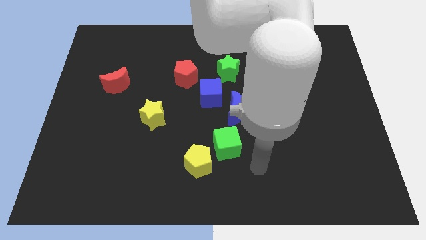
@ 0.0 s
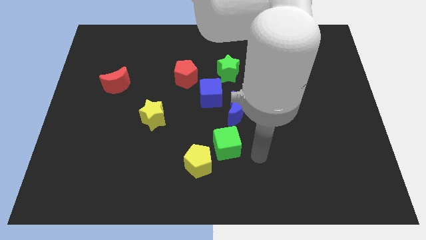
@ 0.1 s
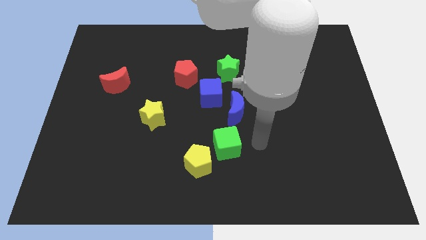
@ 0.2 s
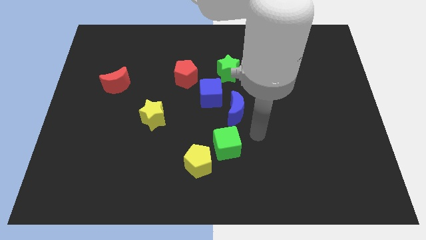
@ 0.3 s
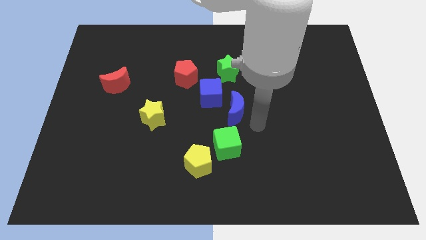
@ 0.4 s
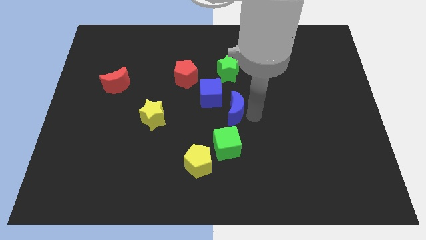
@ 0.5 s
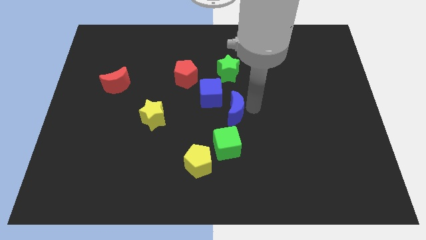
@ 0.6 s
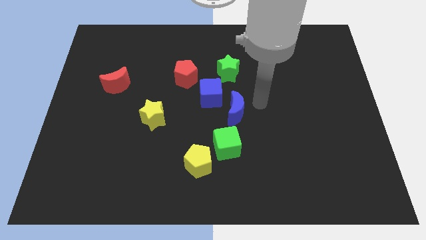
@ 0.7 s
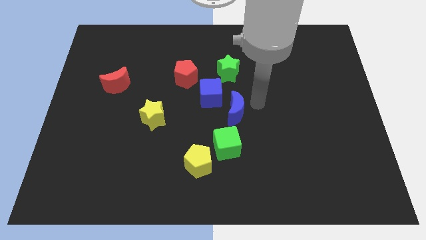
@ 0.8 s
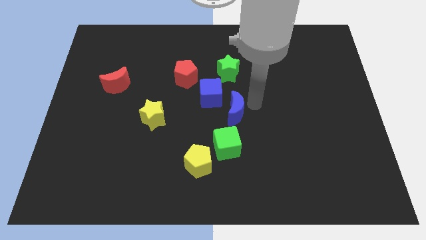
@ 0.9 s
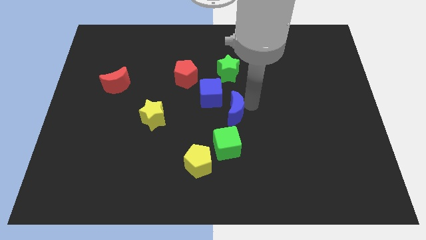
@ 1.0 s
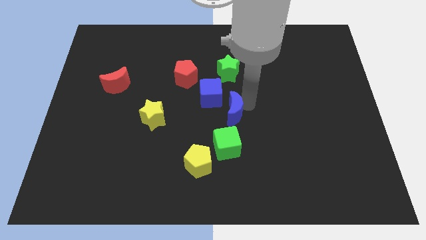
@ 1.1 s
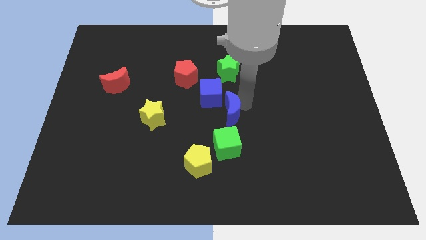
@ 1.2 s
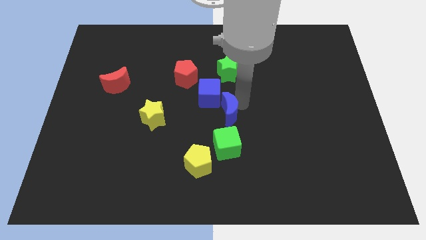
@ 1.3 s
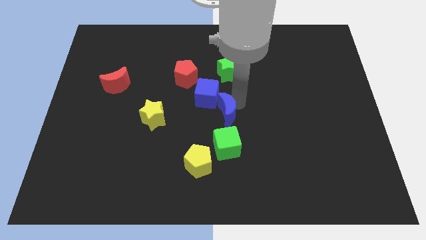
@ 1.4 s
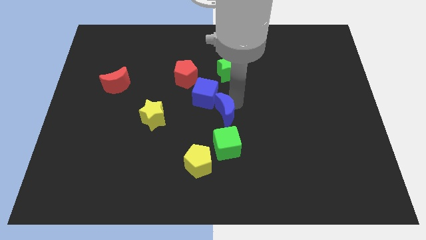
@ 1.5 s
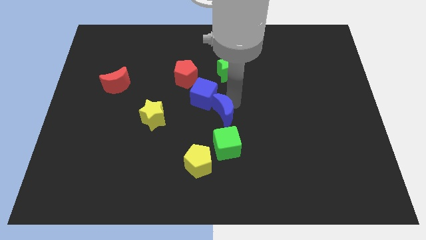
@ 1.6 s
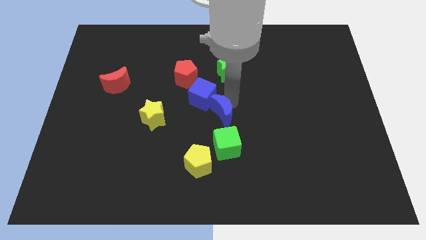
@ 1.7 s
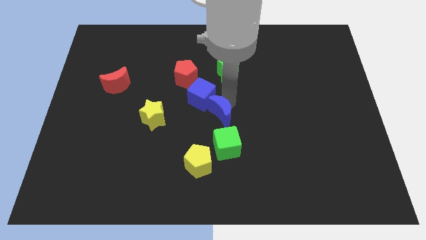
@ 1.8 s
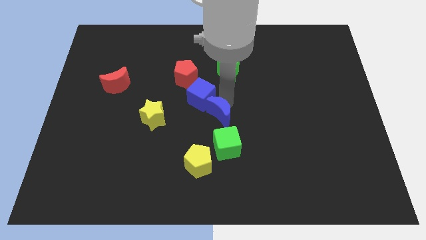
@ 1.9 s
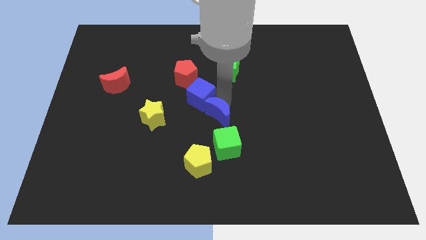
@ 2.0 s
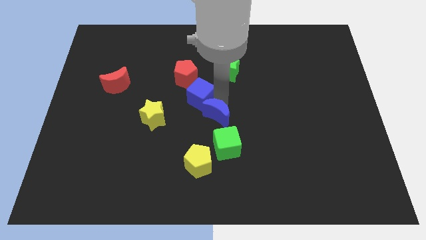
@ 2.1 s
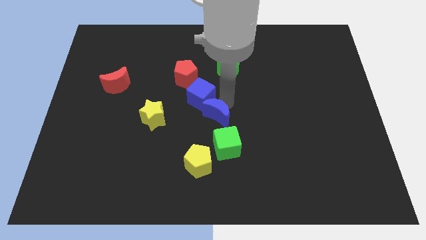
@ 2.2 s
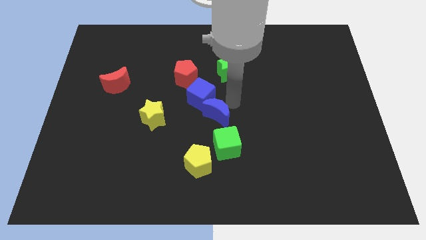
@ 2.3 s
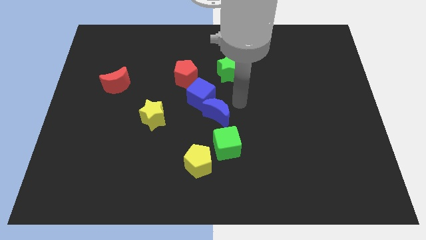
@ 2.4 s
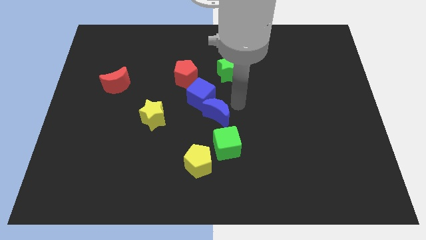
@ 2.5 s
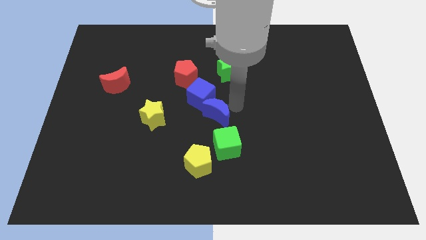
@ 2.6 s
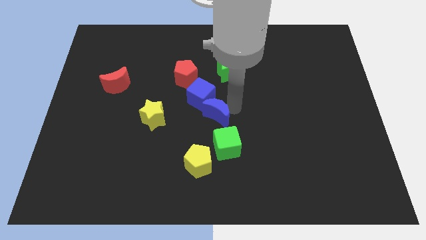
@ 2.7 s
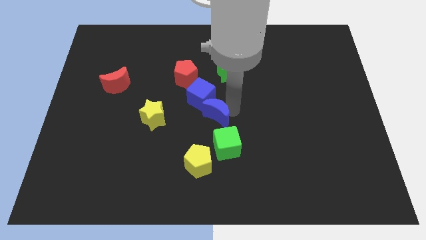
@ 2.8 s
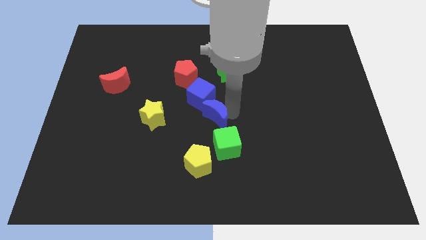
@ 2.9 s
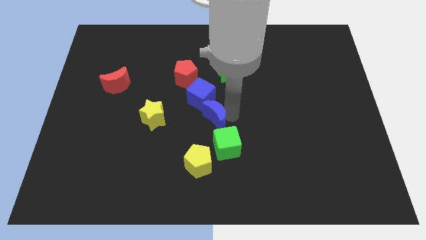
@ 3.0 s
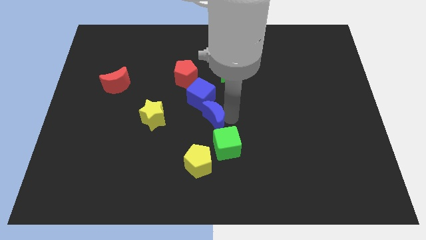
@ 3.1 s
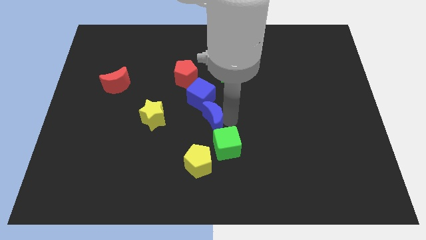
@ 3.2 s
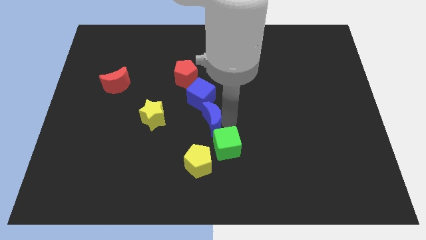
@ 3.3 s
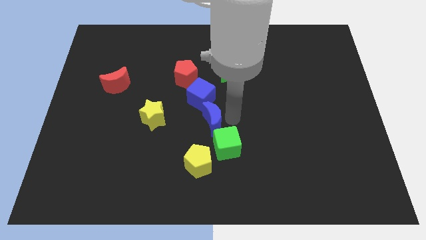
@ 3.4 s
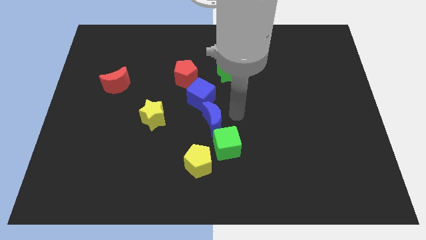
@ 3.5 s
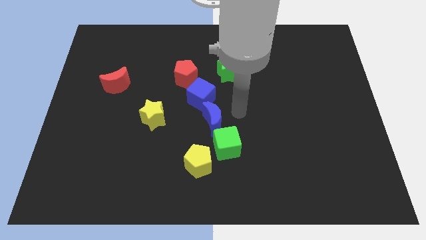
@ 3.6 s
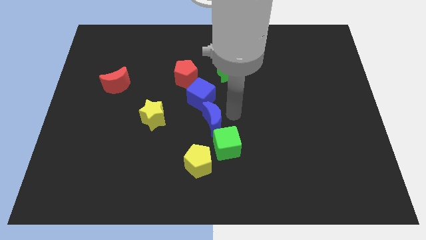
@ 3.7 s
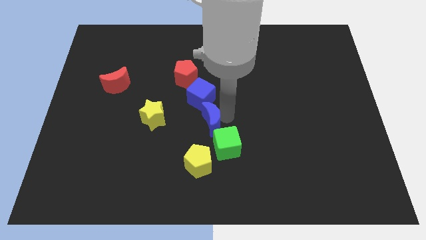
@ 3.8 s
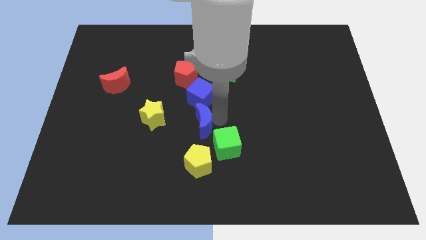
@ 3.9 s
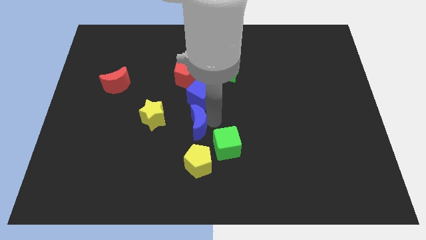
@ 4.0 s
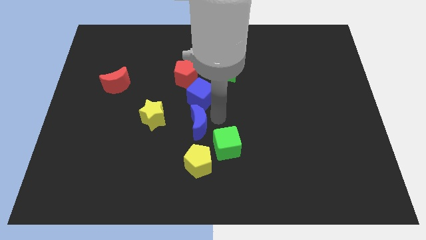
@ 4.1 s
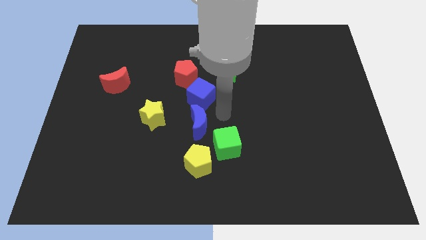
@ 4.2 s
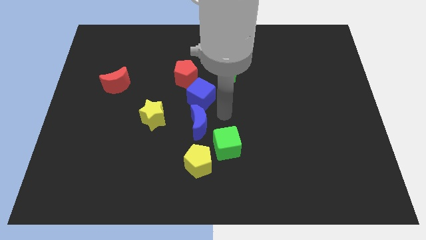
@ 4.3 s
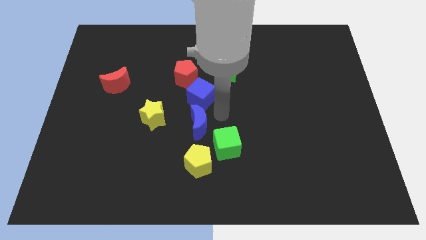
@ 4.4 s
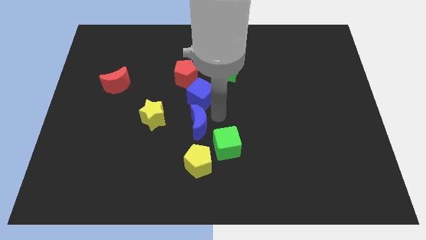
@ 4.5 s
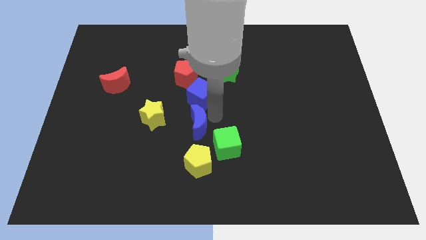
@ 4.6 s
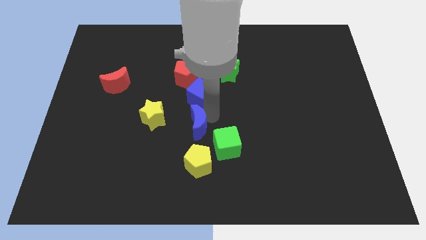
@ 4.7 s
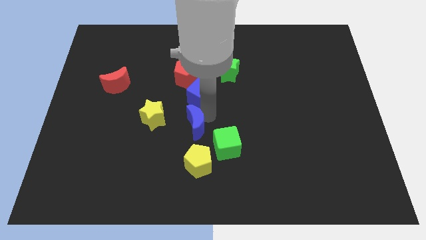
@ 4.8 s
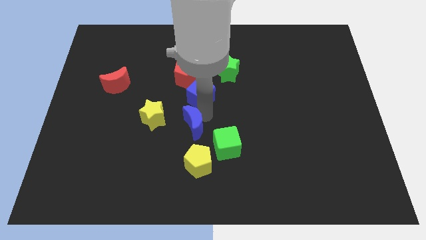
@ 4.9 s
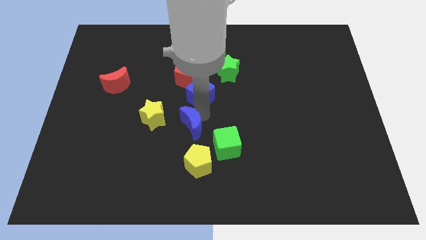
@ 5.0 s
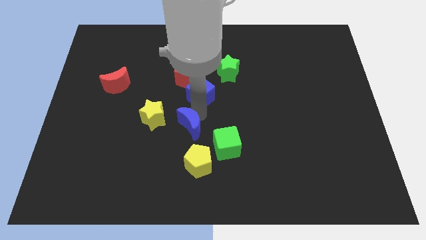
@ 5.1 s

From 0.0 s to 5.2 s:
move the blue moon diagonally down and to the right of the yellow star

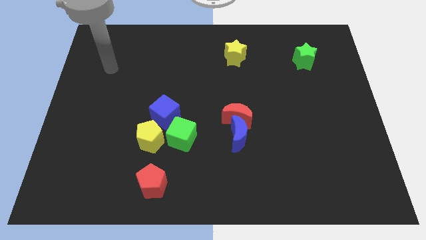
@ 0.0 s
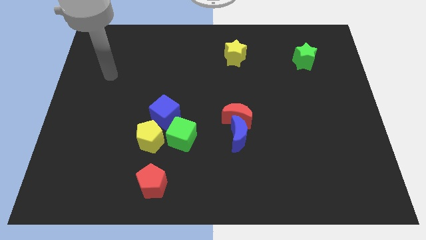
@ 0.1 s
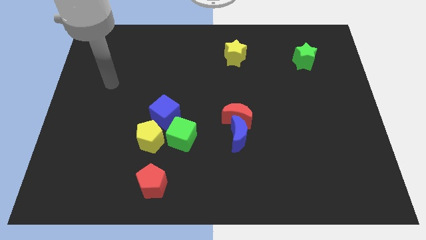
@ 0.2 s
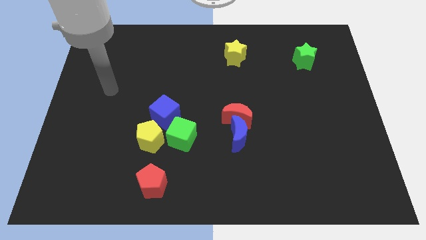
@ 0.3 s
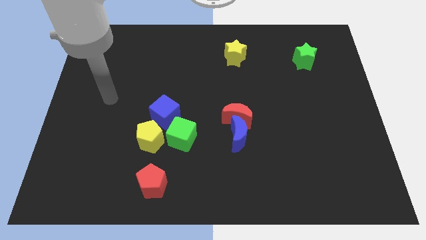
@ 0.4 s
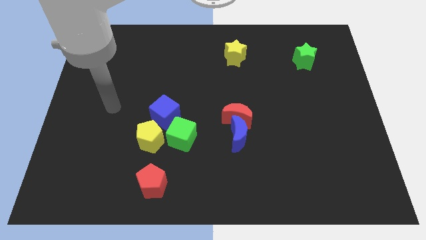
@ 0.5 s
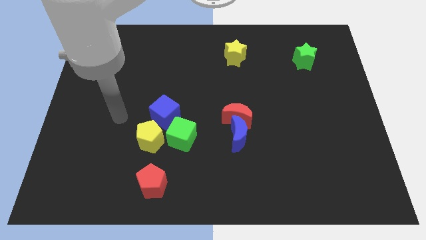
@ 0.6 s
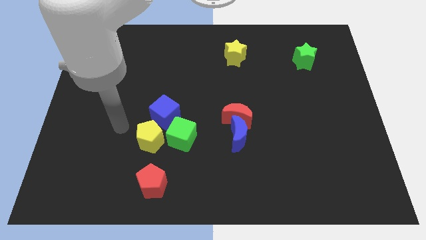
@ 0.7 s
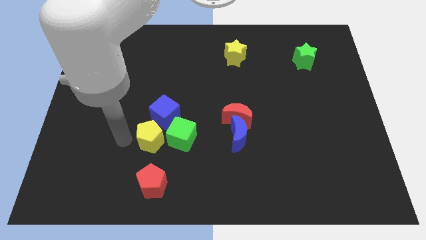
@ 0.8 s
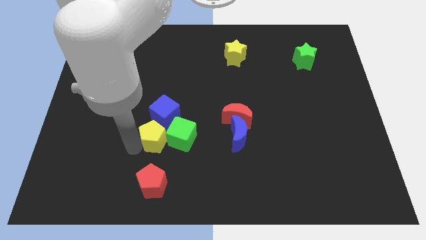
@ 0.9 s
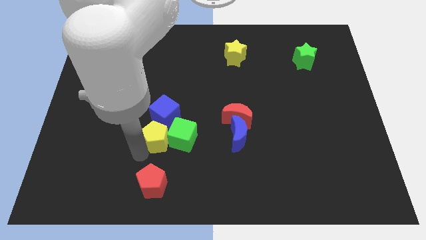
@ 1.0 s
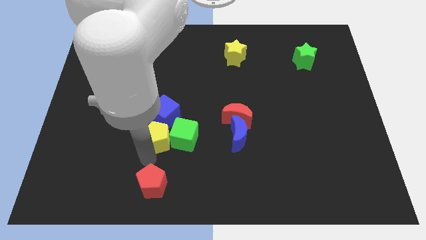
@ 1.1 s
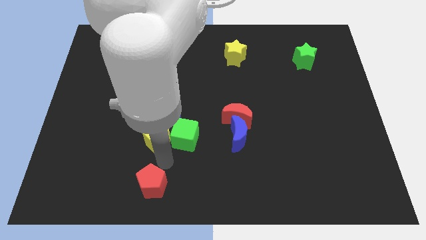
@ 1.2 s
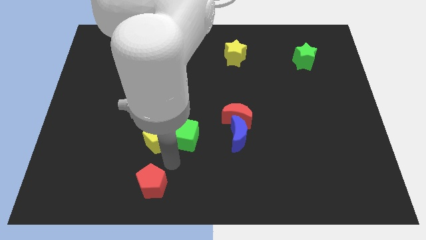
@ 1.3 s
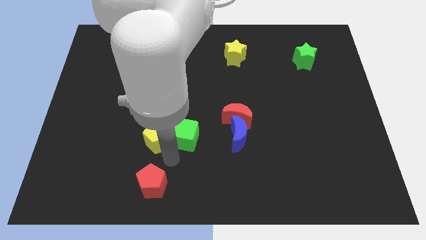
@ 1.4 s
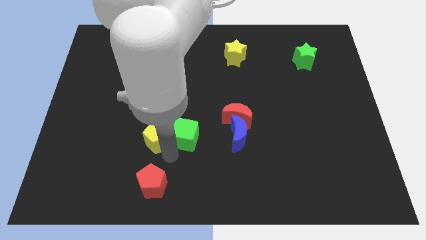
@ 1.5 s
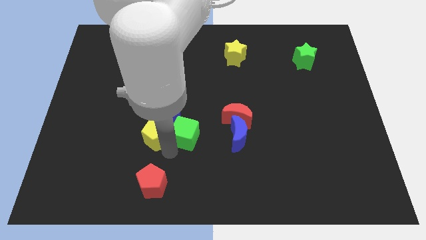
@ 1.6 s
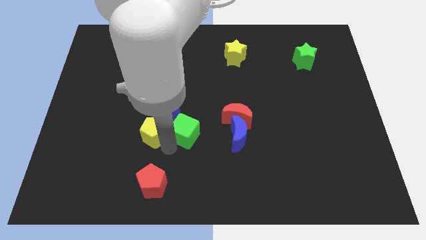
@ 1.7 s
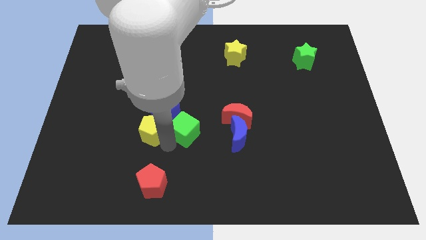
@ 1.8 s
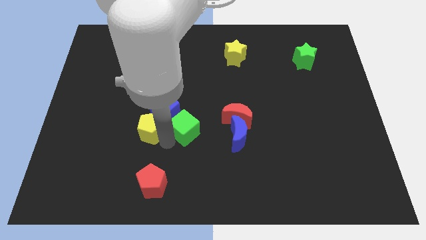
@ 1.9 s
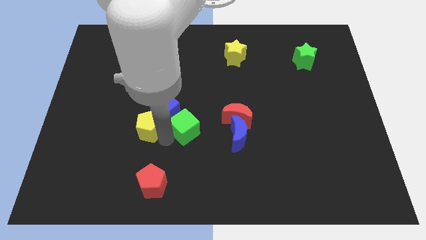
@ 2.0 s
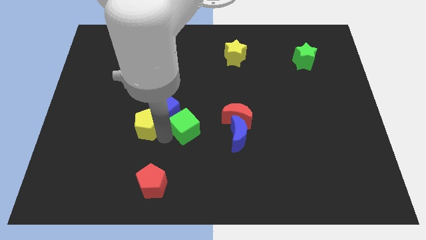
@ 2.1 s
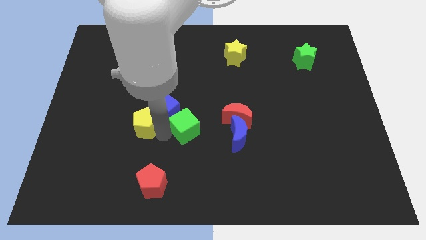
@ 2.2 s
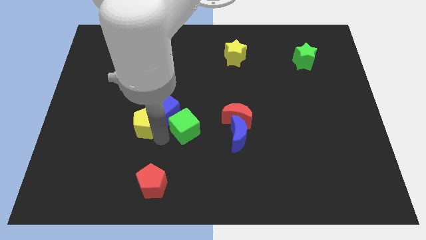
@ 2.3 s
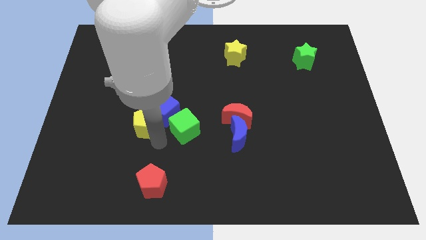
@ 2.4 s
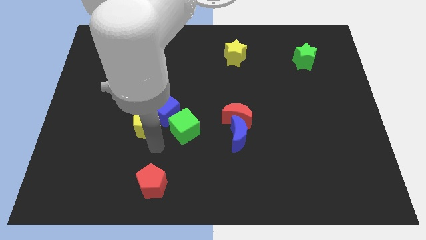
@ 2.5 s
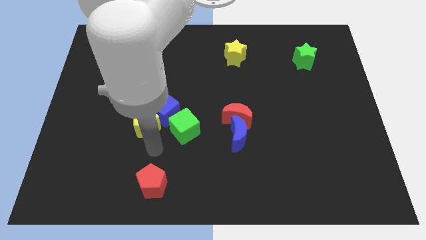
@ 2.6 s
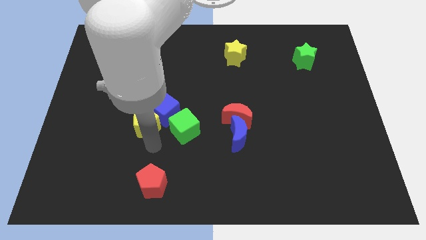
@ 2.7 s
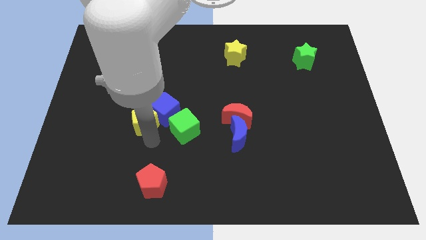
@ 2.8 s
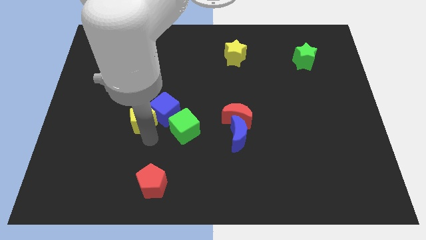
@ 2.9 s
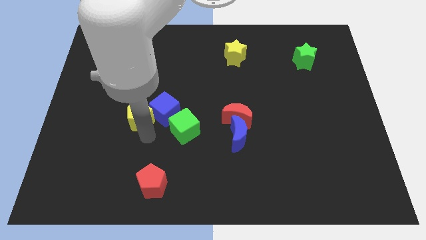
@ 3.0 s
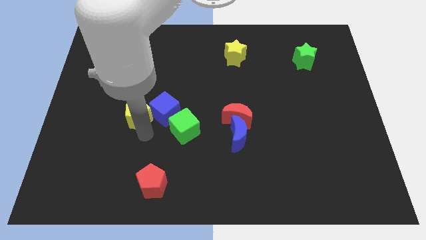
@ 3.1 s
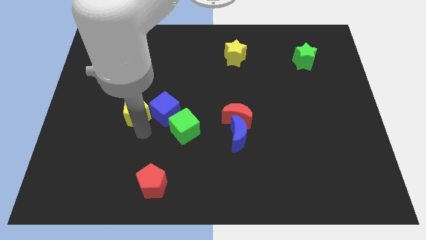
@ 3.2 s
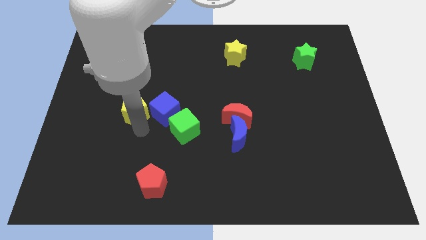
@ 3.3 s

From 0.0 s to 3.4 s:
push the yellow pentagon to the top left side of the blue cube
